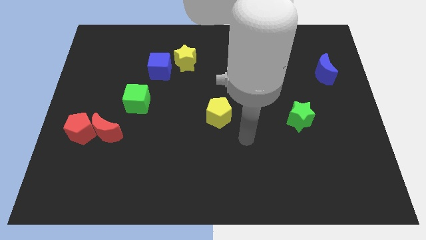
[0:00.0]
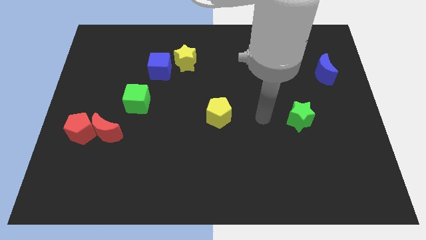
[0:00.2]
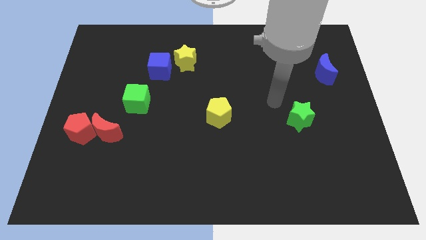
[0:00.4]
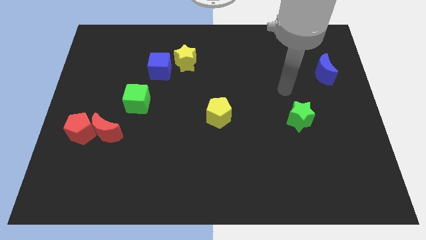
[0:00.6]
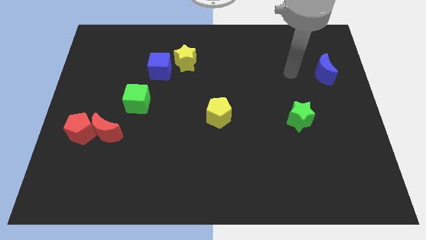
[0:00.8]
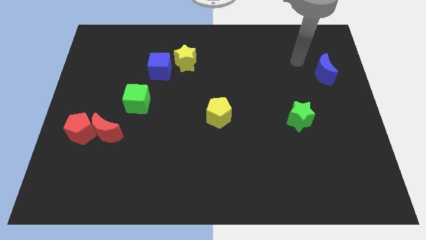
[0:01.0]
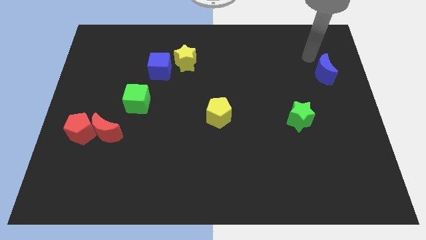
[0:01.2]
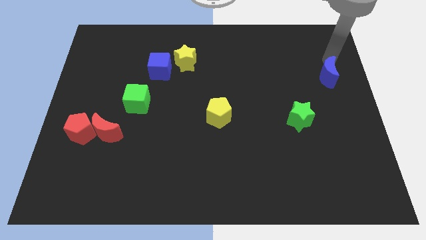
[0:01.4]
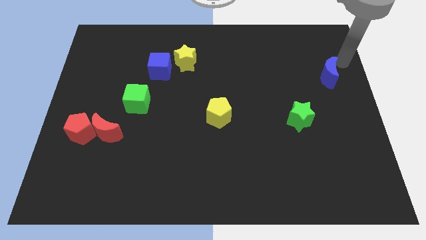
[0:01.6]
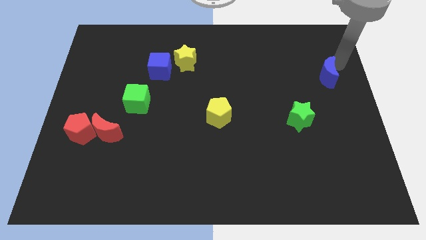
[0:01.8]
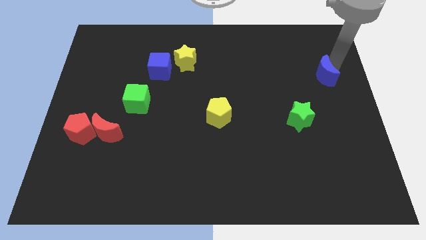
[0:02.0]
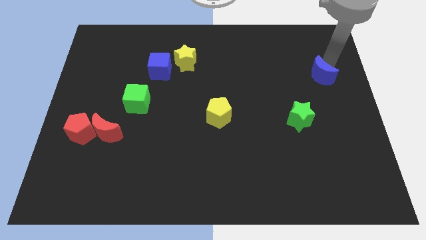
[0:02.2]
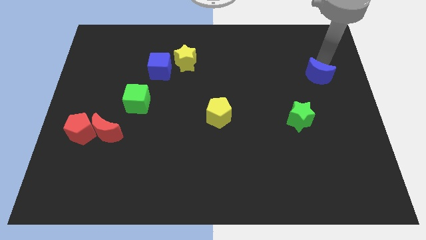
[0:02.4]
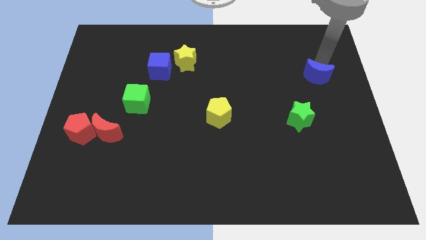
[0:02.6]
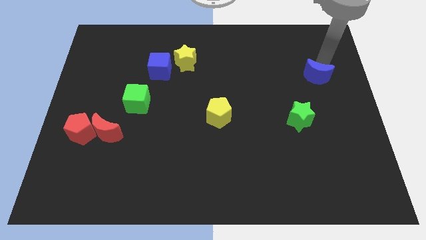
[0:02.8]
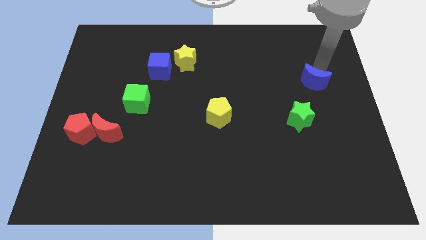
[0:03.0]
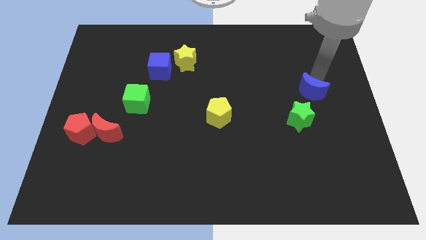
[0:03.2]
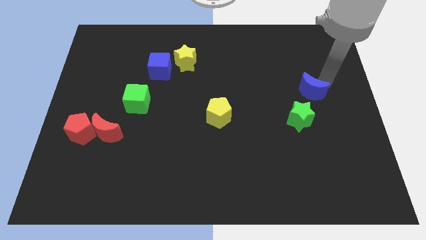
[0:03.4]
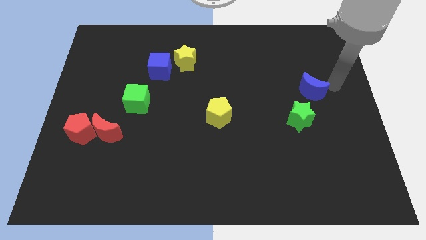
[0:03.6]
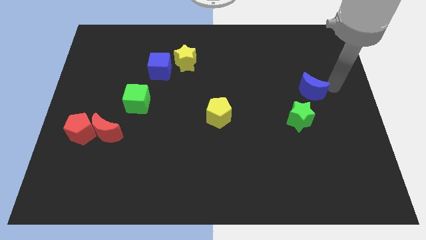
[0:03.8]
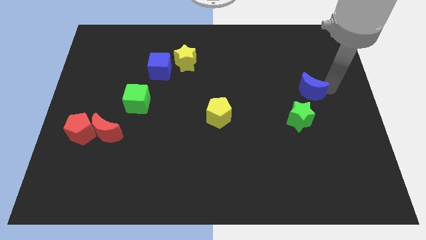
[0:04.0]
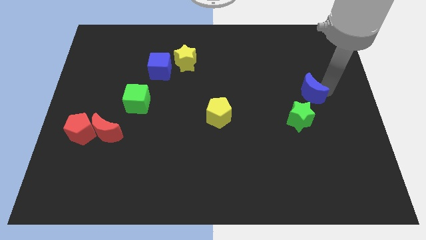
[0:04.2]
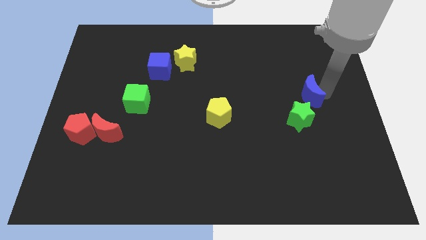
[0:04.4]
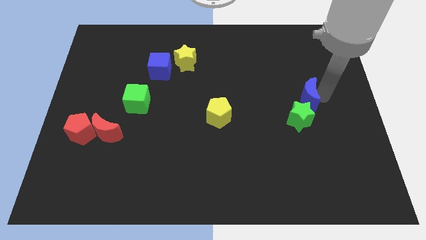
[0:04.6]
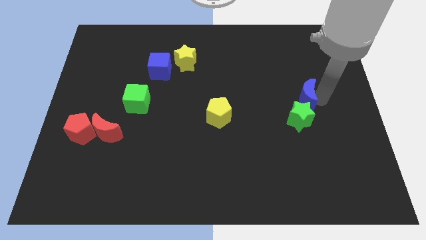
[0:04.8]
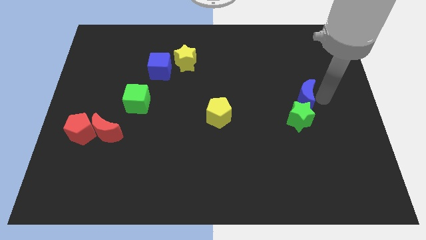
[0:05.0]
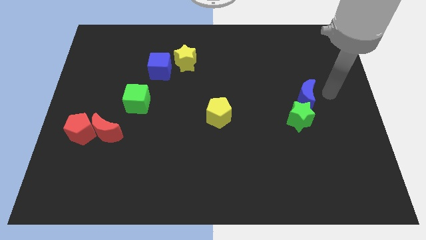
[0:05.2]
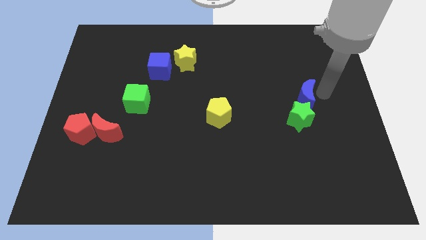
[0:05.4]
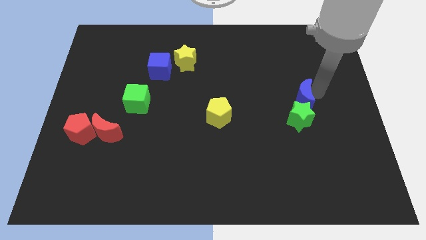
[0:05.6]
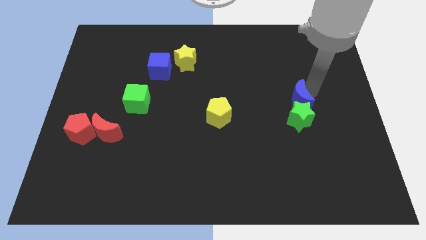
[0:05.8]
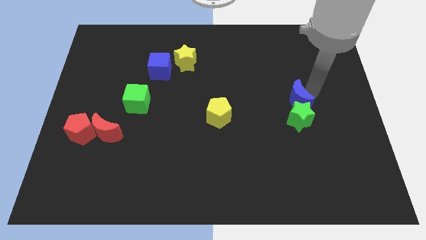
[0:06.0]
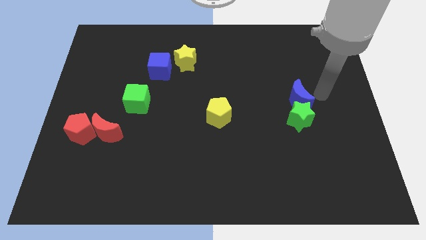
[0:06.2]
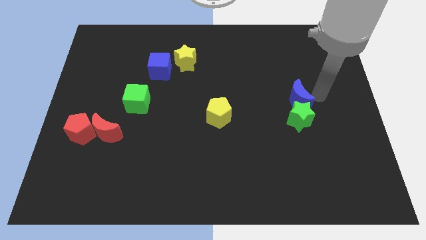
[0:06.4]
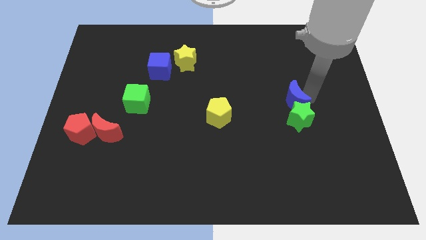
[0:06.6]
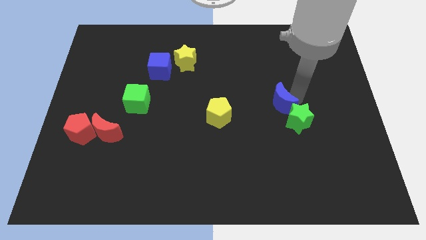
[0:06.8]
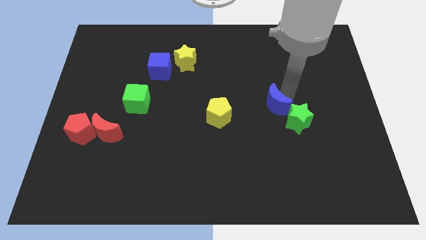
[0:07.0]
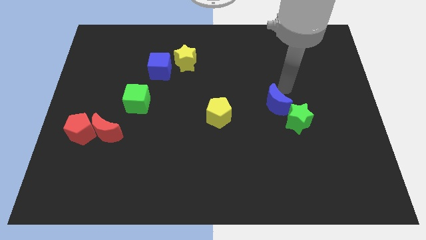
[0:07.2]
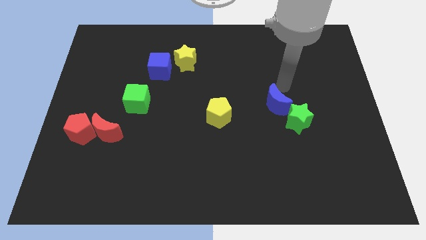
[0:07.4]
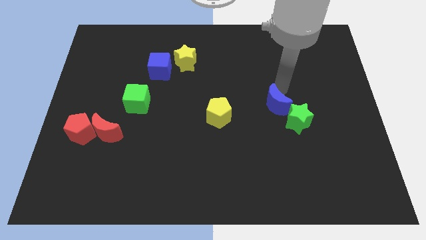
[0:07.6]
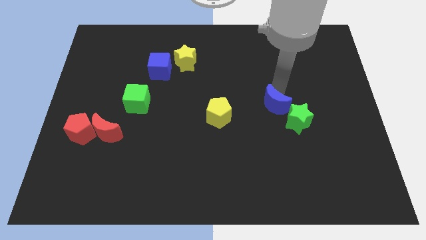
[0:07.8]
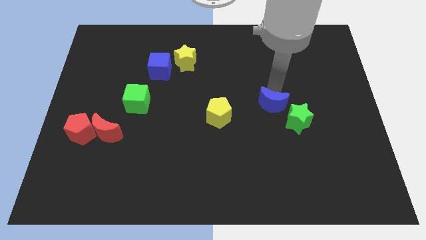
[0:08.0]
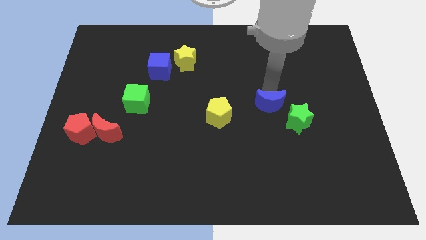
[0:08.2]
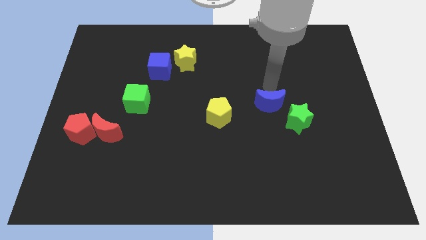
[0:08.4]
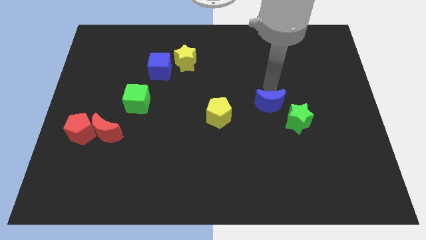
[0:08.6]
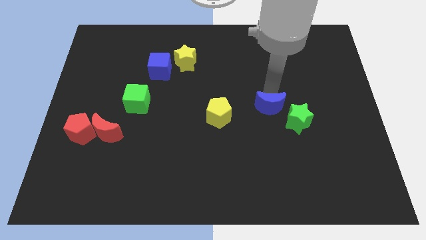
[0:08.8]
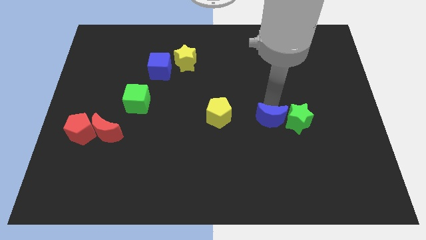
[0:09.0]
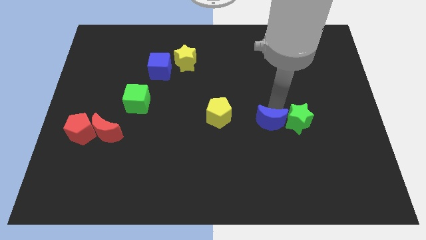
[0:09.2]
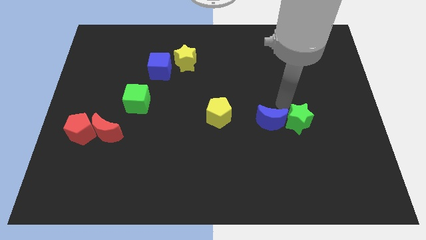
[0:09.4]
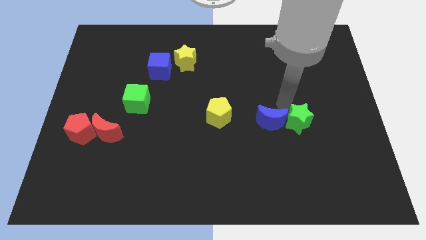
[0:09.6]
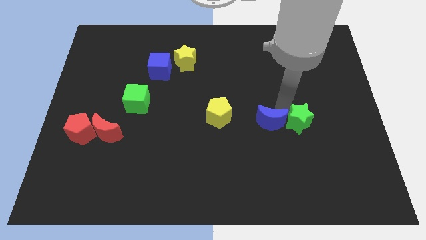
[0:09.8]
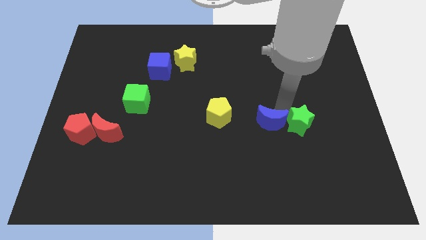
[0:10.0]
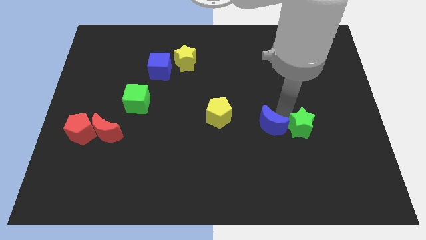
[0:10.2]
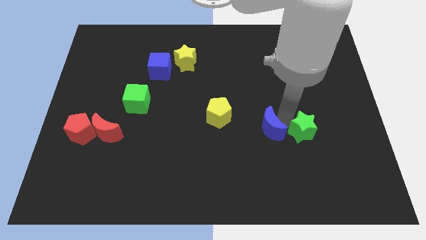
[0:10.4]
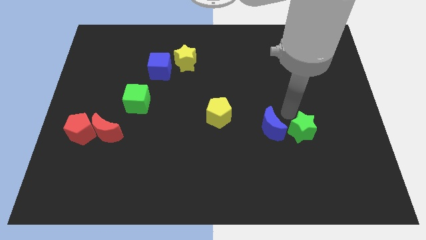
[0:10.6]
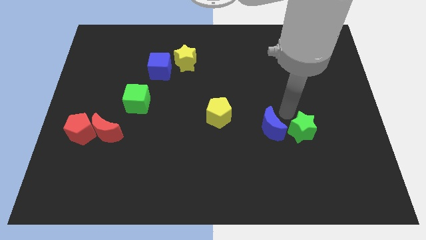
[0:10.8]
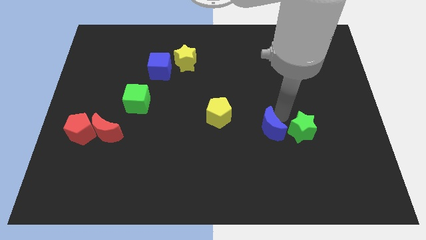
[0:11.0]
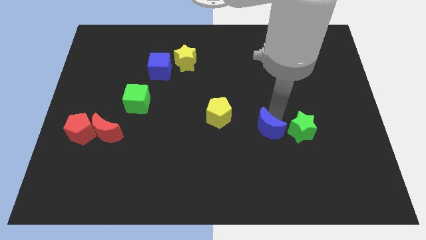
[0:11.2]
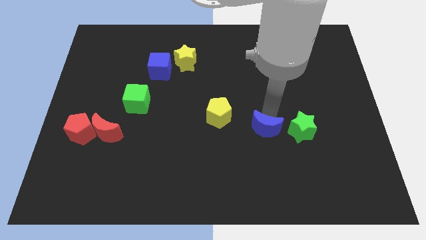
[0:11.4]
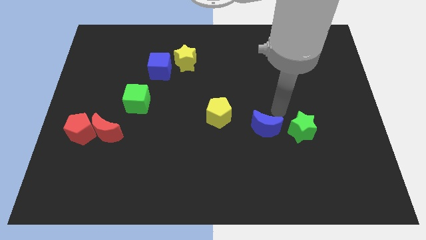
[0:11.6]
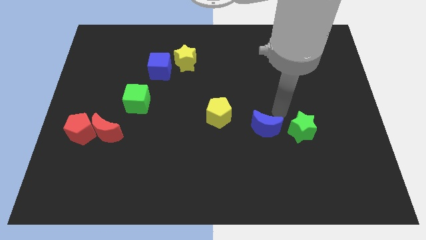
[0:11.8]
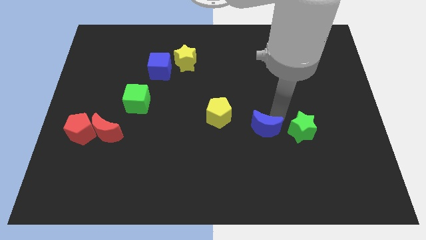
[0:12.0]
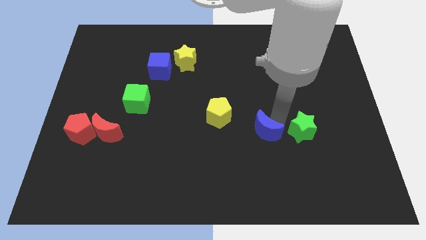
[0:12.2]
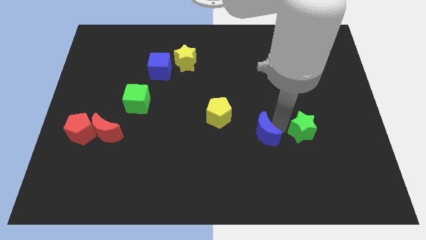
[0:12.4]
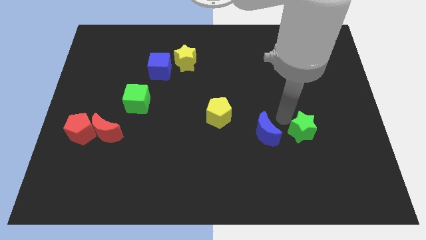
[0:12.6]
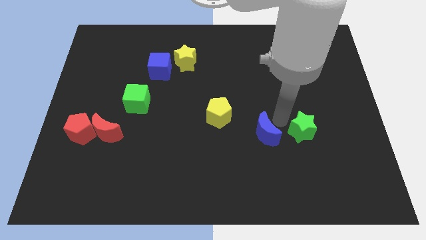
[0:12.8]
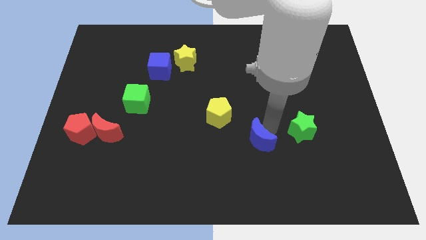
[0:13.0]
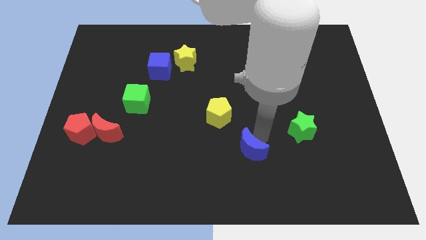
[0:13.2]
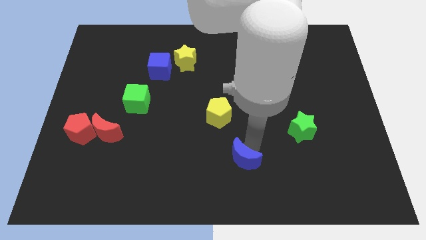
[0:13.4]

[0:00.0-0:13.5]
put the blue moon to the bottom side
